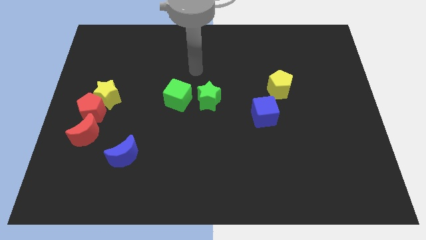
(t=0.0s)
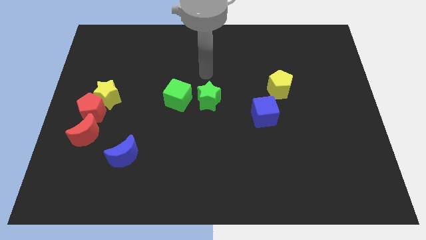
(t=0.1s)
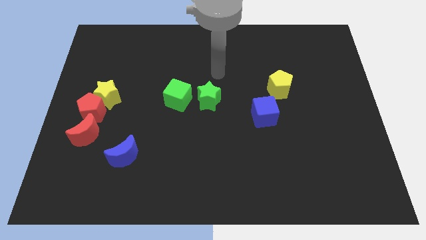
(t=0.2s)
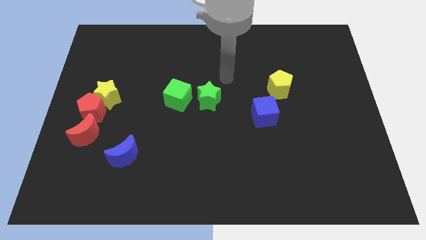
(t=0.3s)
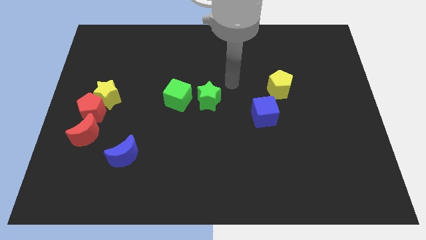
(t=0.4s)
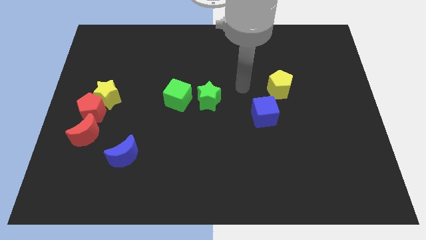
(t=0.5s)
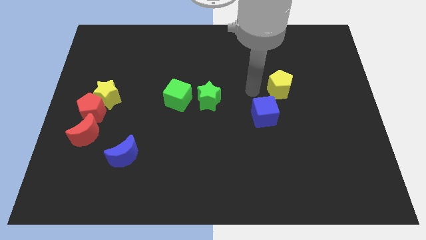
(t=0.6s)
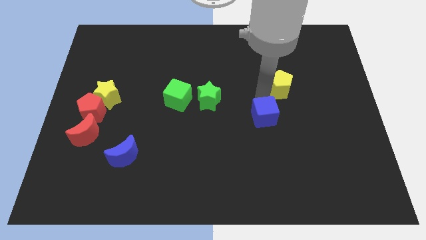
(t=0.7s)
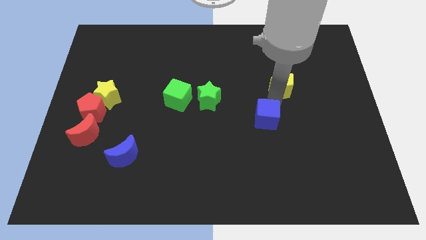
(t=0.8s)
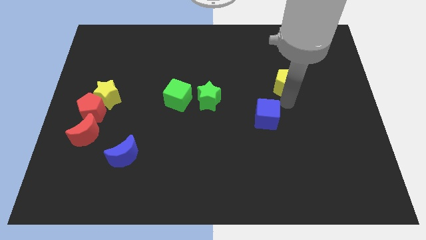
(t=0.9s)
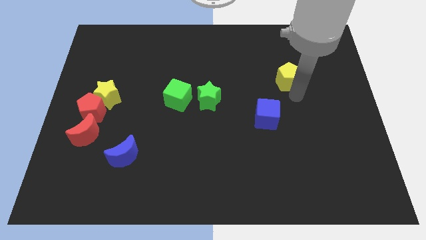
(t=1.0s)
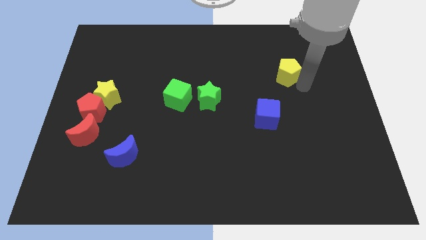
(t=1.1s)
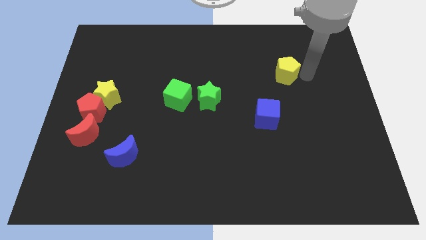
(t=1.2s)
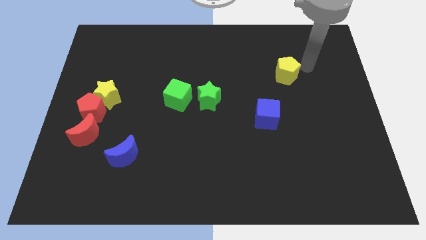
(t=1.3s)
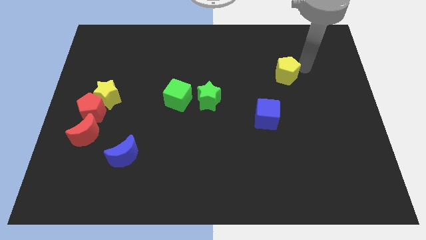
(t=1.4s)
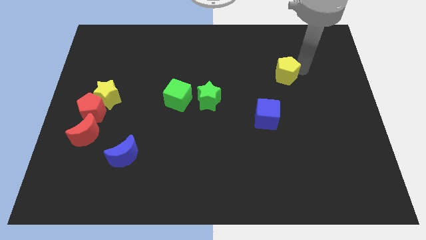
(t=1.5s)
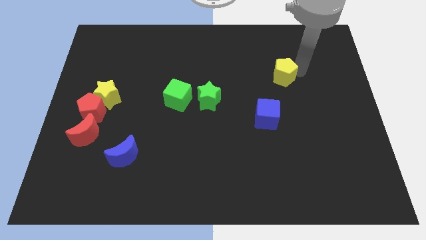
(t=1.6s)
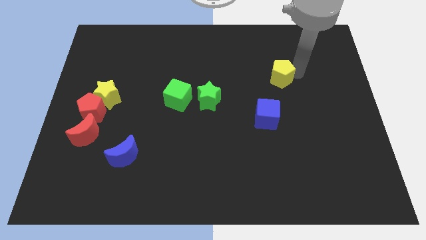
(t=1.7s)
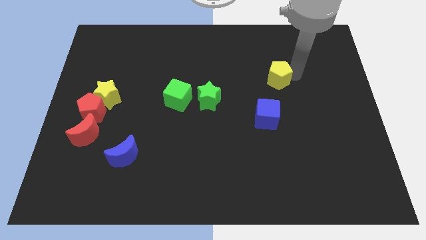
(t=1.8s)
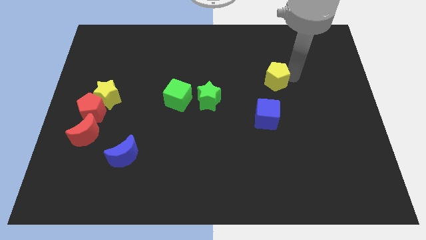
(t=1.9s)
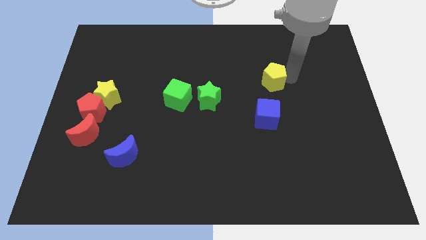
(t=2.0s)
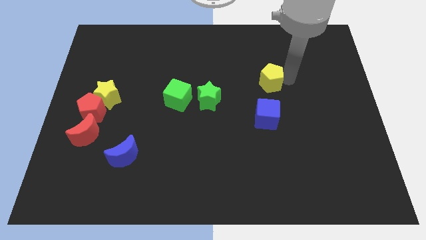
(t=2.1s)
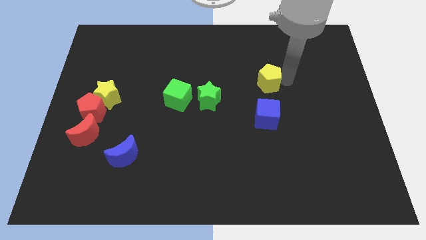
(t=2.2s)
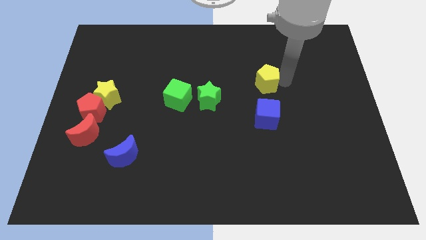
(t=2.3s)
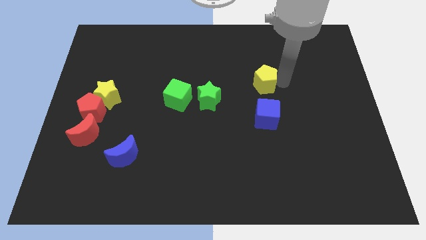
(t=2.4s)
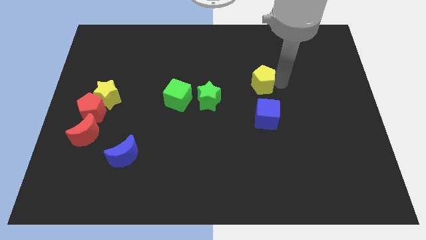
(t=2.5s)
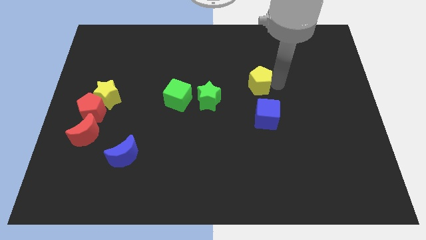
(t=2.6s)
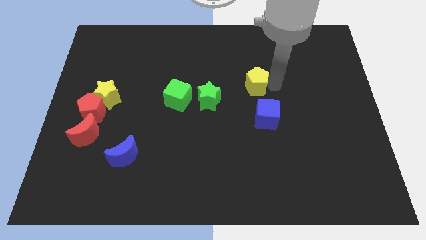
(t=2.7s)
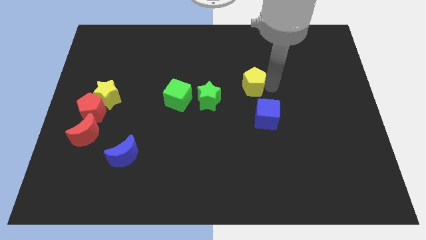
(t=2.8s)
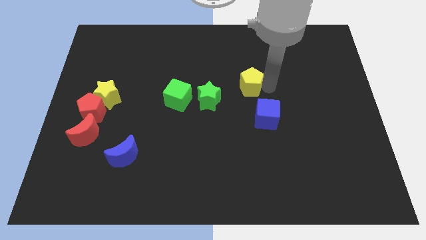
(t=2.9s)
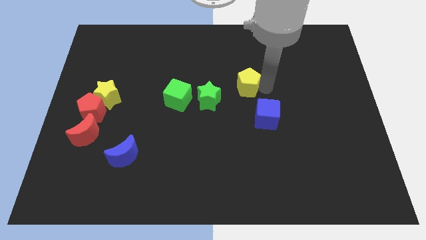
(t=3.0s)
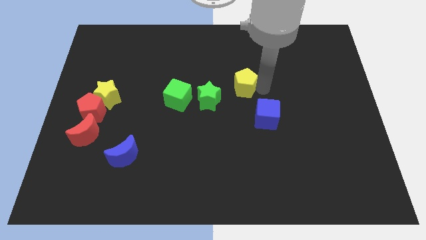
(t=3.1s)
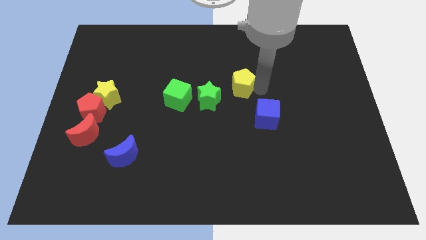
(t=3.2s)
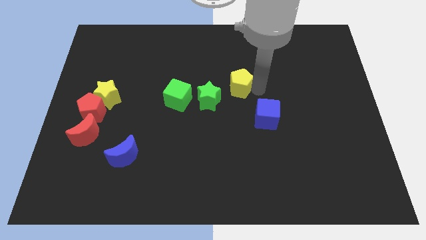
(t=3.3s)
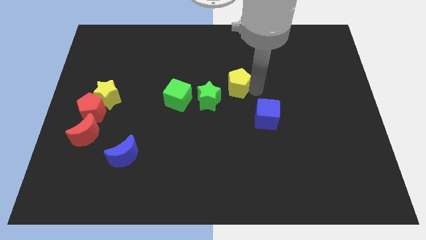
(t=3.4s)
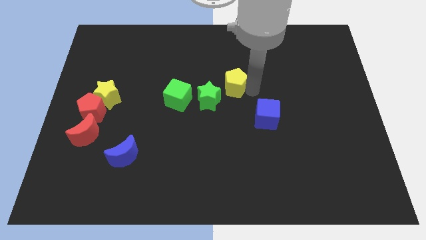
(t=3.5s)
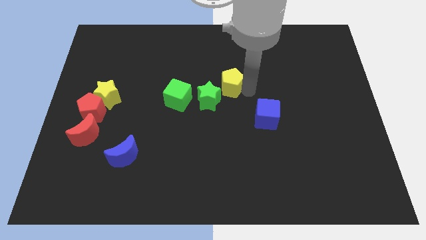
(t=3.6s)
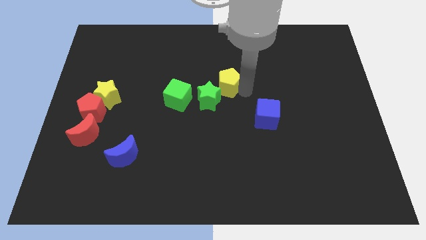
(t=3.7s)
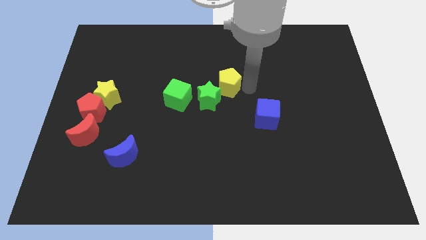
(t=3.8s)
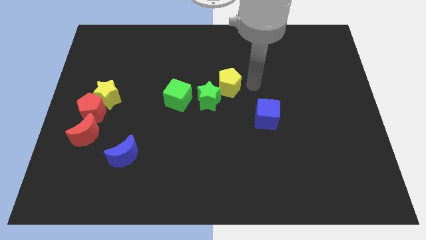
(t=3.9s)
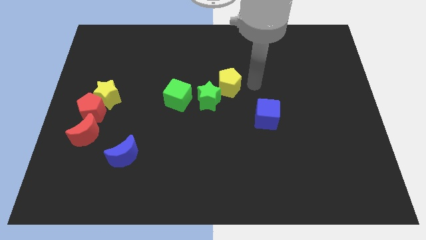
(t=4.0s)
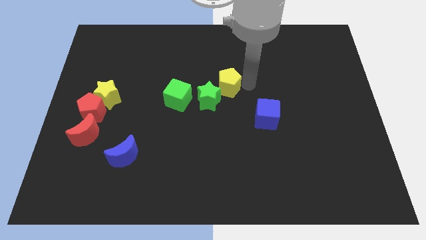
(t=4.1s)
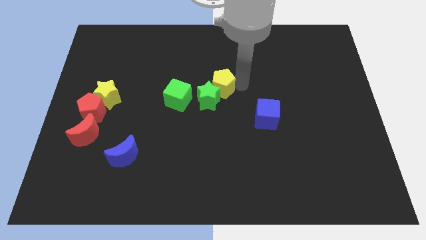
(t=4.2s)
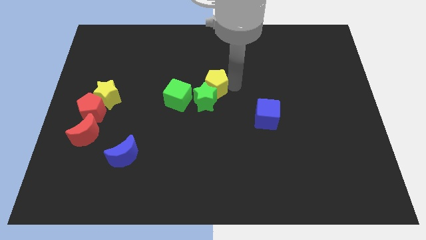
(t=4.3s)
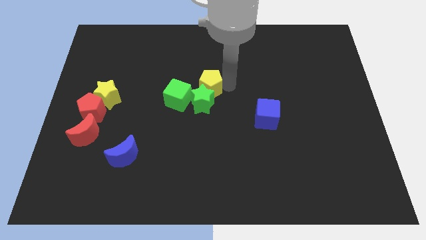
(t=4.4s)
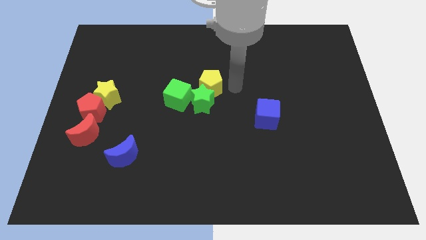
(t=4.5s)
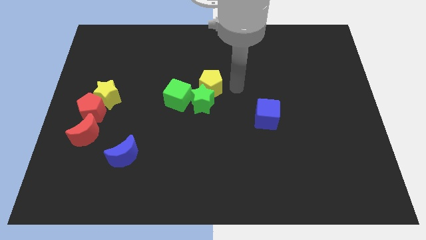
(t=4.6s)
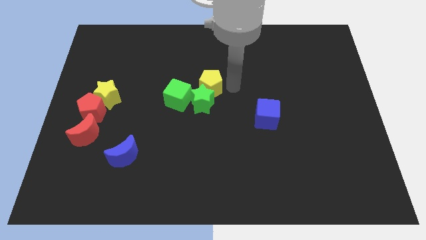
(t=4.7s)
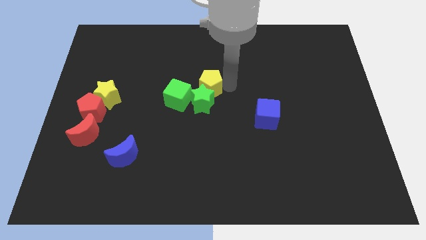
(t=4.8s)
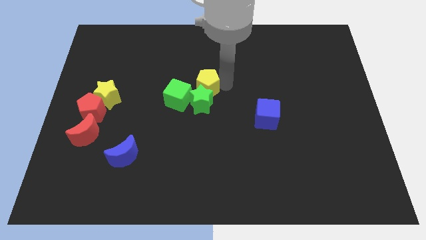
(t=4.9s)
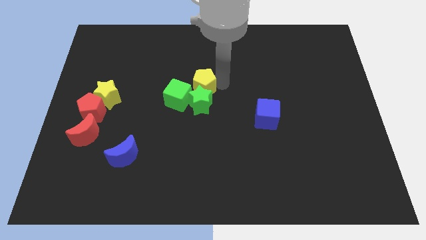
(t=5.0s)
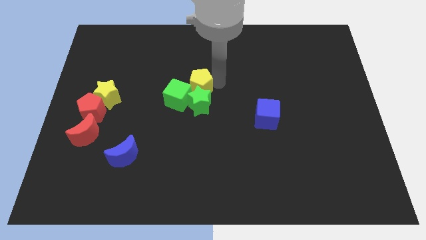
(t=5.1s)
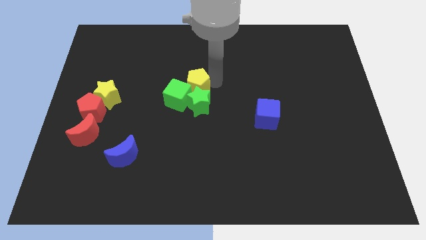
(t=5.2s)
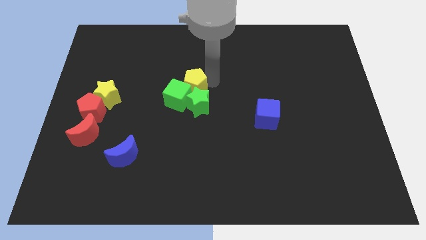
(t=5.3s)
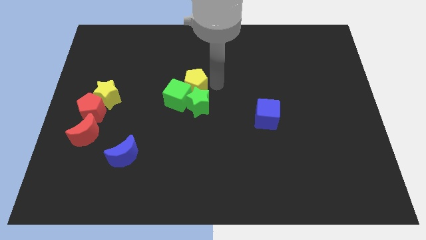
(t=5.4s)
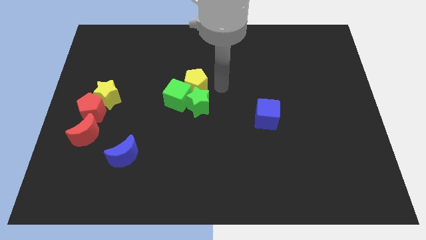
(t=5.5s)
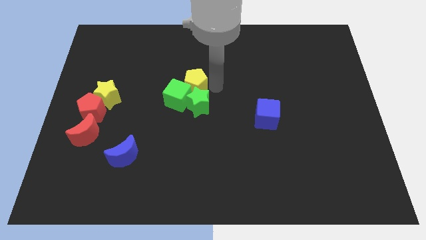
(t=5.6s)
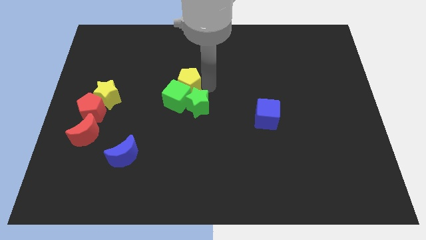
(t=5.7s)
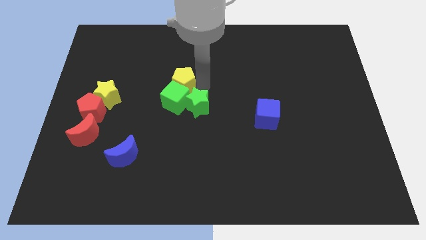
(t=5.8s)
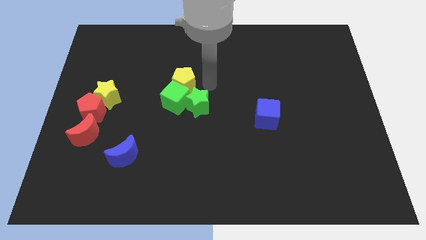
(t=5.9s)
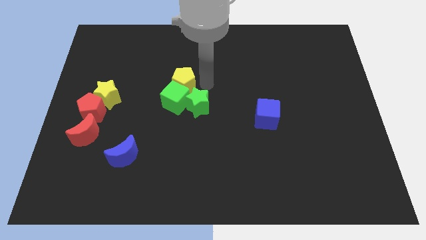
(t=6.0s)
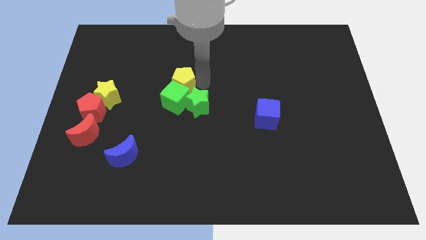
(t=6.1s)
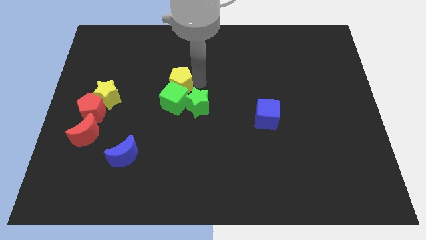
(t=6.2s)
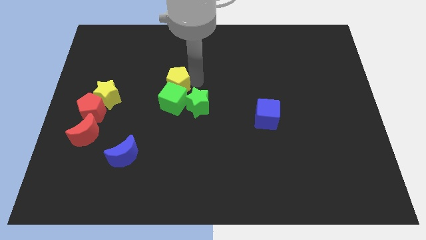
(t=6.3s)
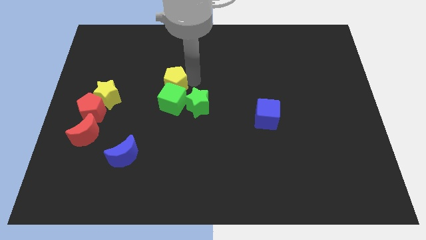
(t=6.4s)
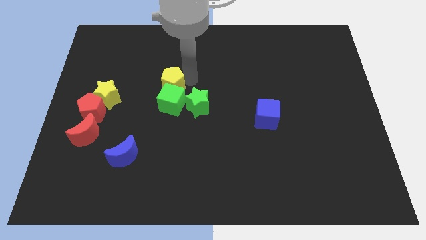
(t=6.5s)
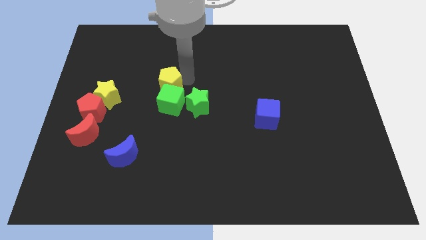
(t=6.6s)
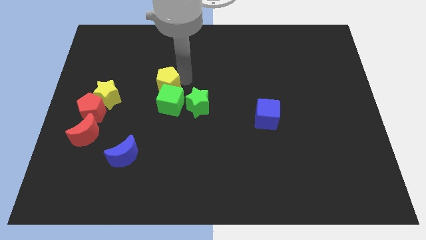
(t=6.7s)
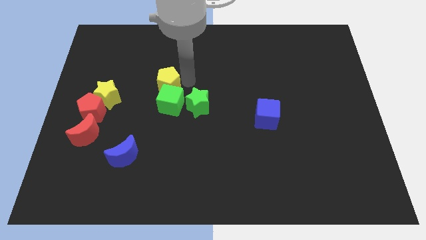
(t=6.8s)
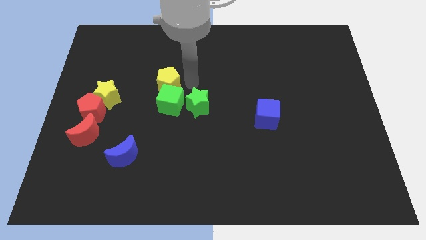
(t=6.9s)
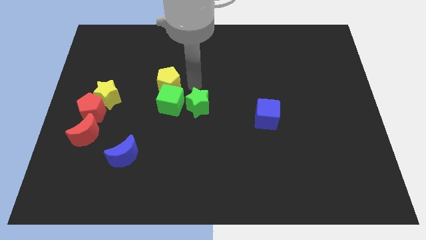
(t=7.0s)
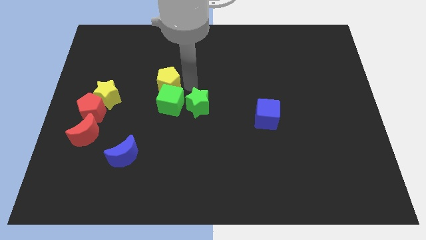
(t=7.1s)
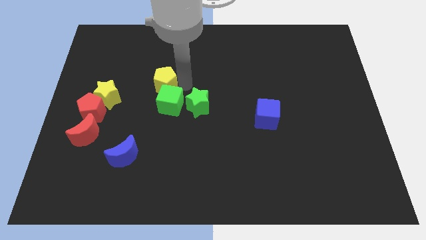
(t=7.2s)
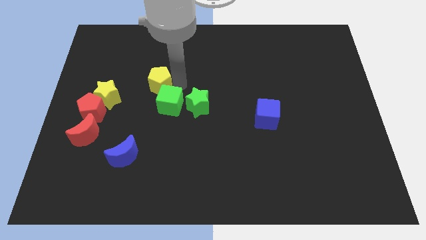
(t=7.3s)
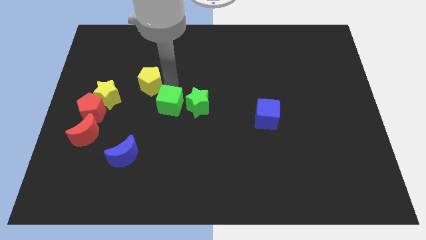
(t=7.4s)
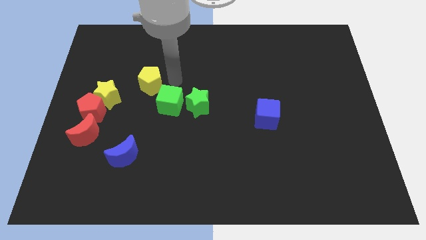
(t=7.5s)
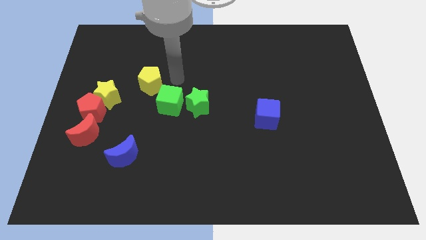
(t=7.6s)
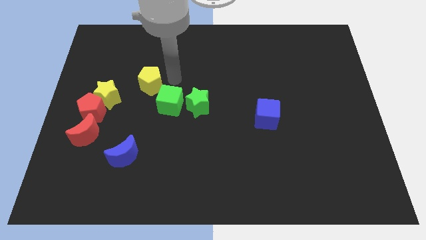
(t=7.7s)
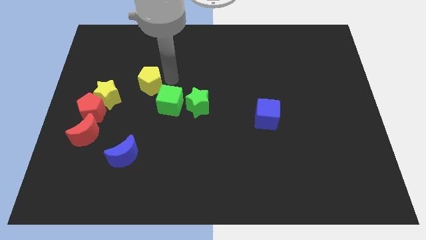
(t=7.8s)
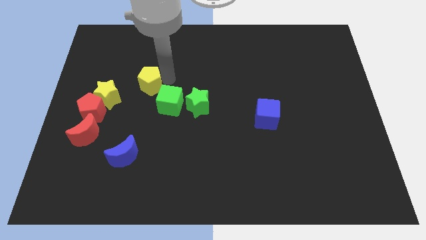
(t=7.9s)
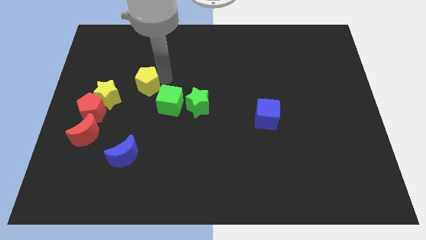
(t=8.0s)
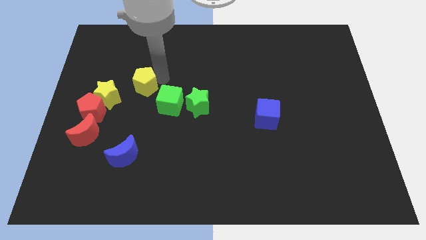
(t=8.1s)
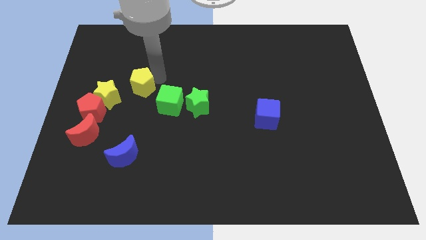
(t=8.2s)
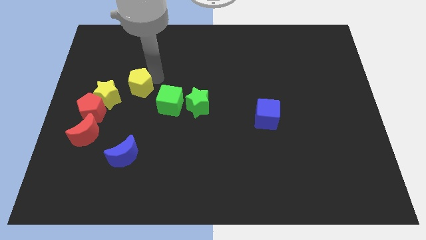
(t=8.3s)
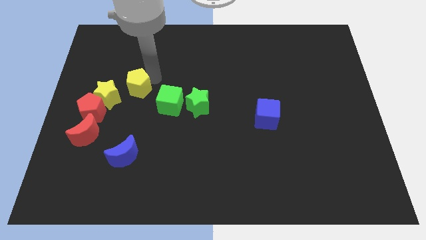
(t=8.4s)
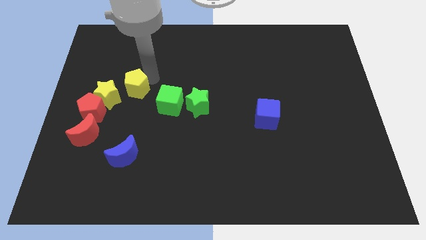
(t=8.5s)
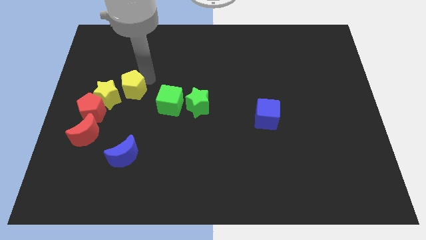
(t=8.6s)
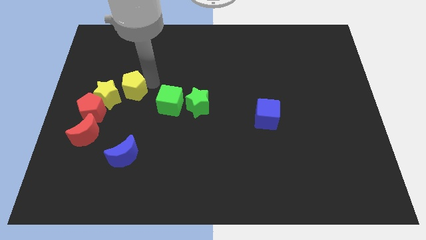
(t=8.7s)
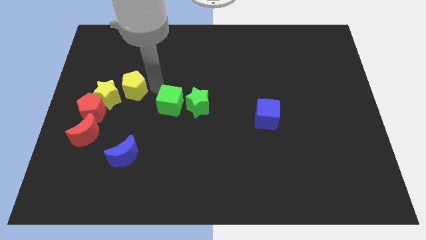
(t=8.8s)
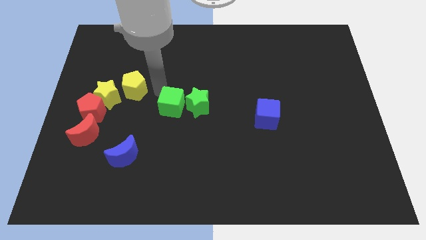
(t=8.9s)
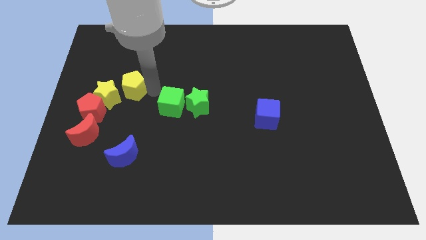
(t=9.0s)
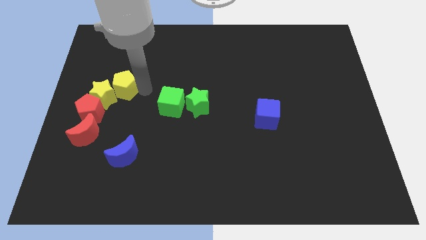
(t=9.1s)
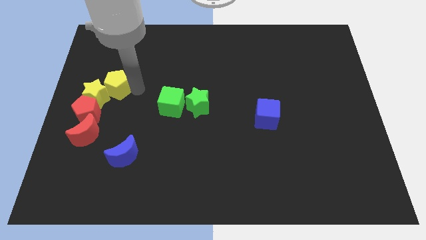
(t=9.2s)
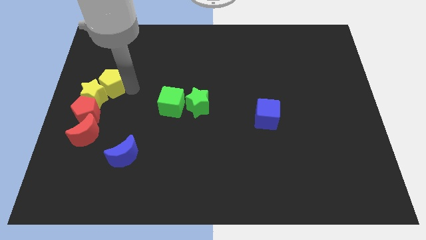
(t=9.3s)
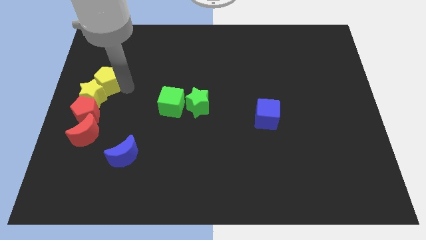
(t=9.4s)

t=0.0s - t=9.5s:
push the yellow pentagon to the left side of the board
